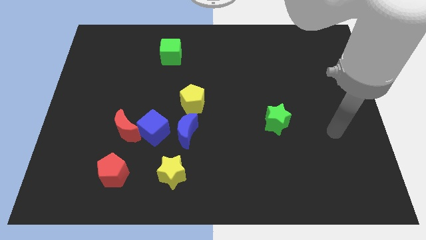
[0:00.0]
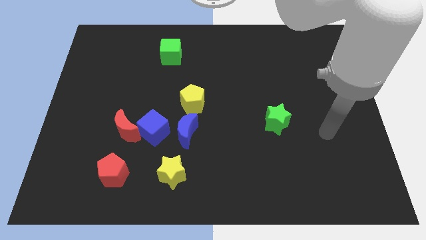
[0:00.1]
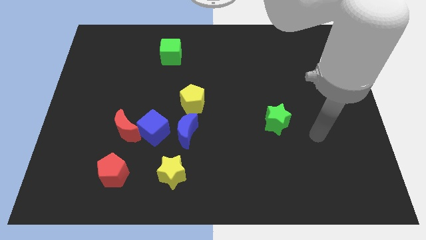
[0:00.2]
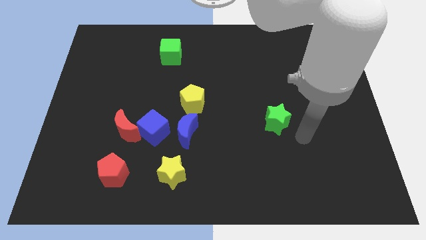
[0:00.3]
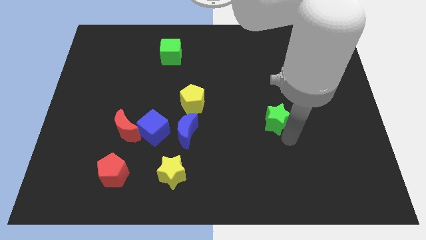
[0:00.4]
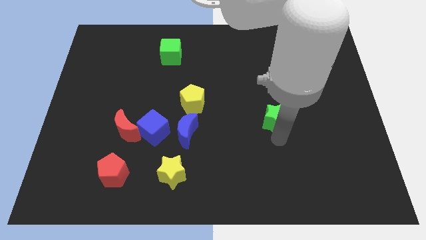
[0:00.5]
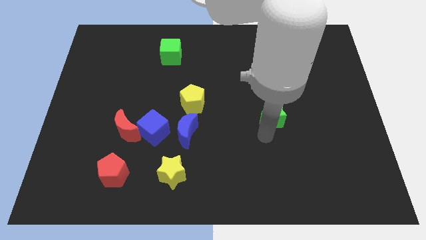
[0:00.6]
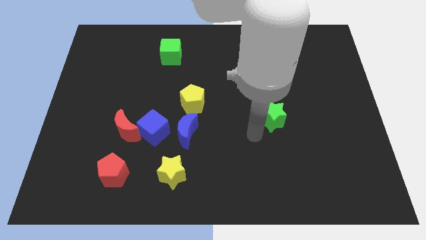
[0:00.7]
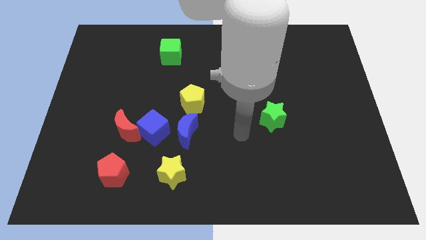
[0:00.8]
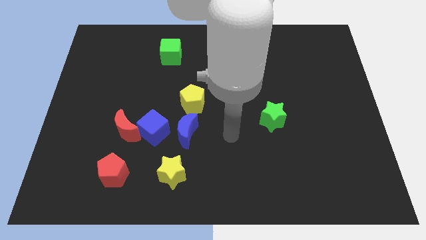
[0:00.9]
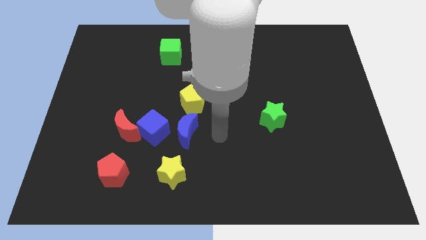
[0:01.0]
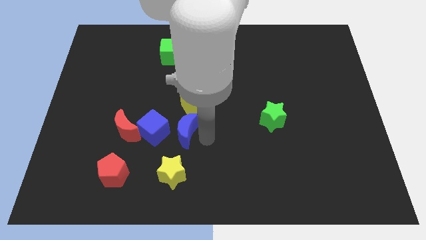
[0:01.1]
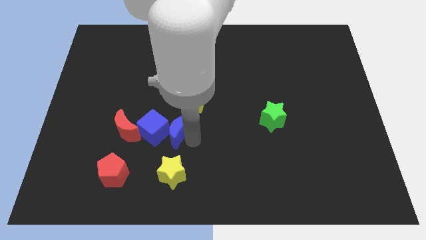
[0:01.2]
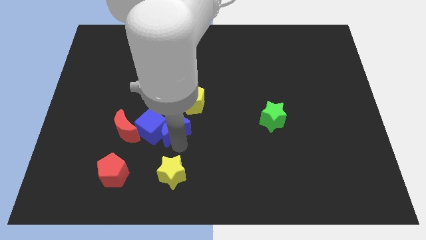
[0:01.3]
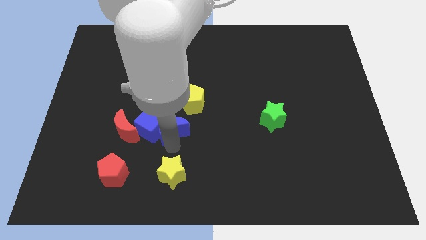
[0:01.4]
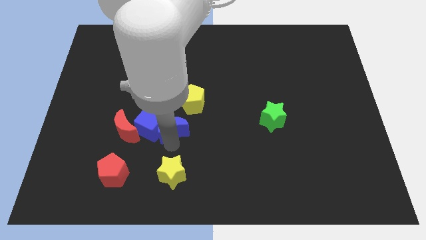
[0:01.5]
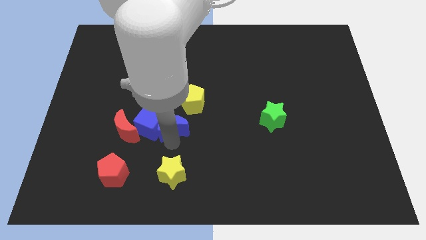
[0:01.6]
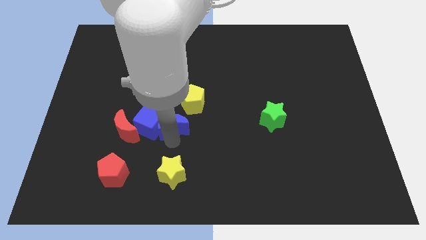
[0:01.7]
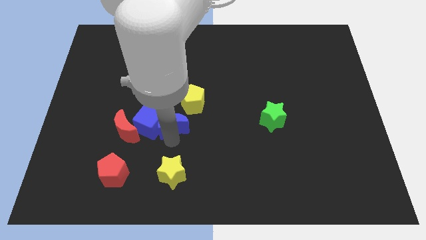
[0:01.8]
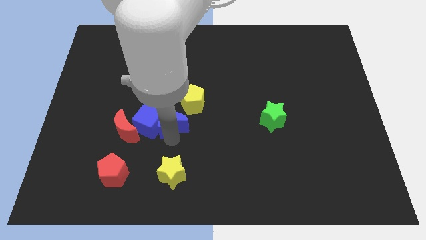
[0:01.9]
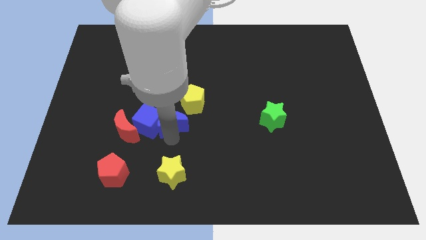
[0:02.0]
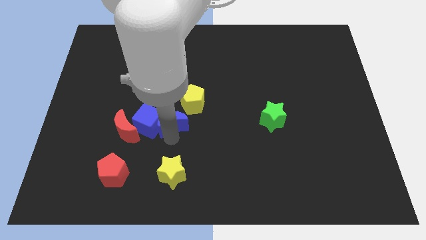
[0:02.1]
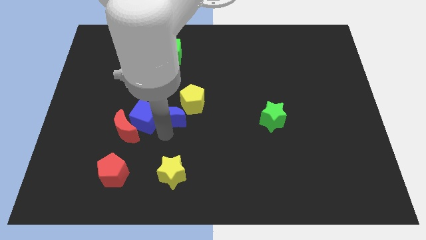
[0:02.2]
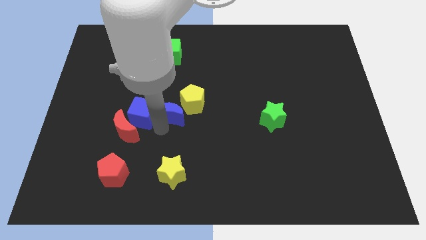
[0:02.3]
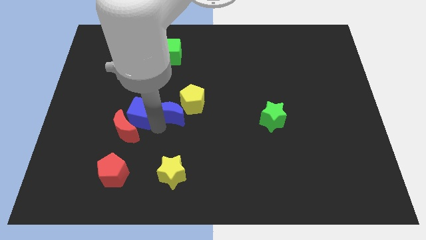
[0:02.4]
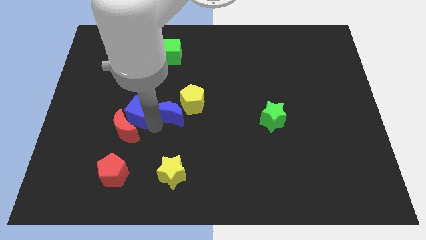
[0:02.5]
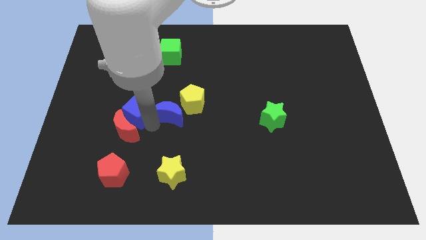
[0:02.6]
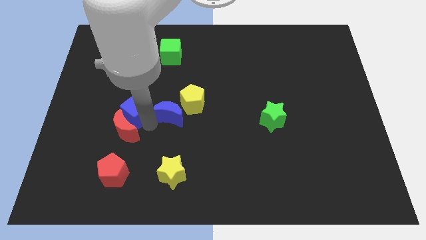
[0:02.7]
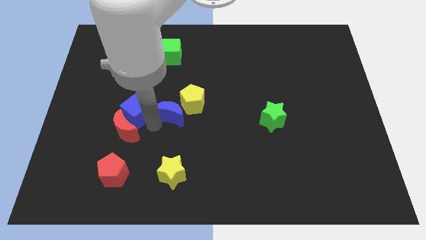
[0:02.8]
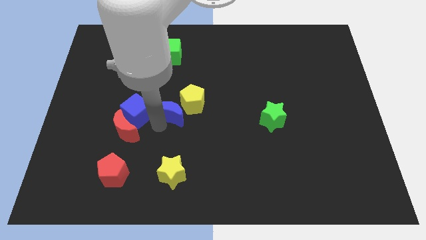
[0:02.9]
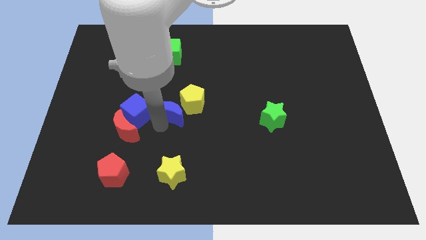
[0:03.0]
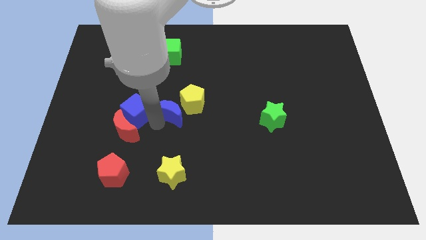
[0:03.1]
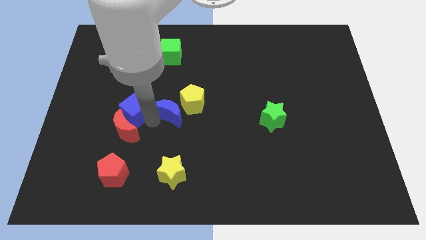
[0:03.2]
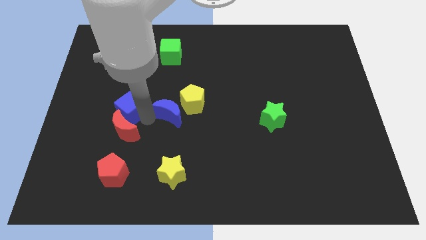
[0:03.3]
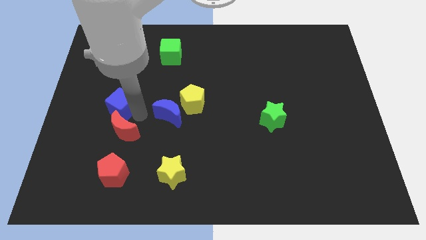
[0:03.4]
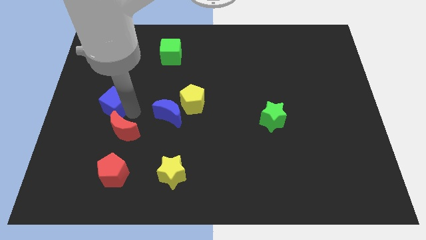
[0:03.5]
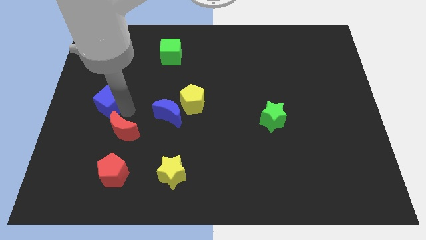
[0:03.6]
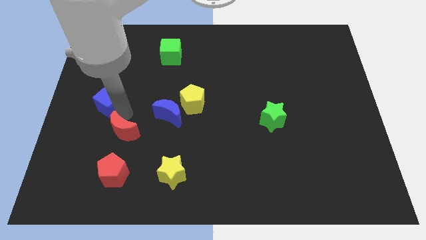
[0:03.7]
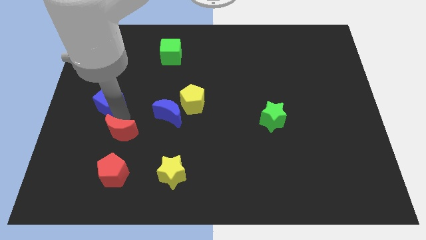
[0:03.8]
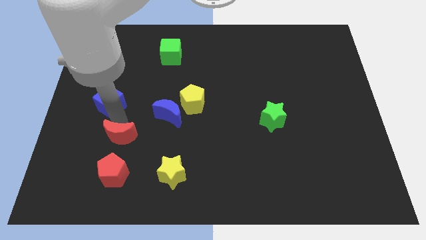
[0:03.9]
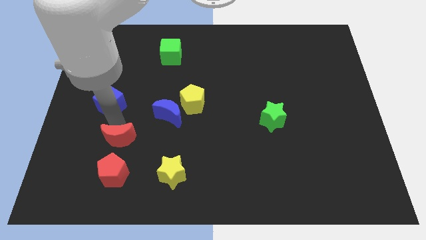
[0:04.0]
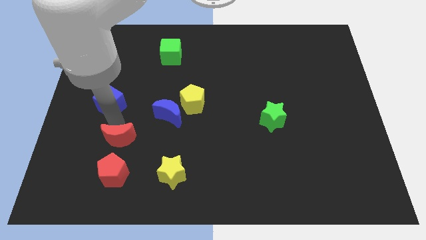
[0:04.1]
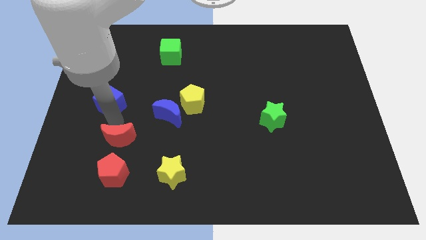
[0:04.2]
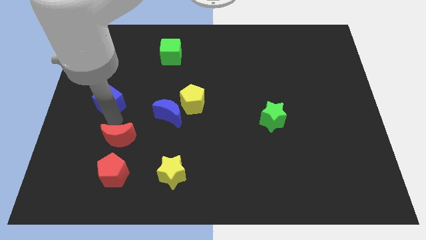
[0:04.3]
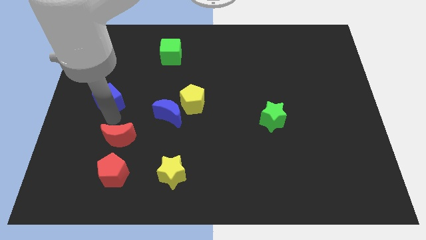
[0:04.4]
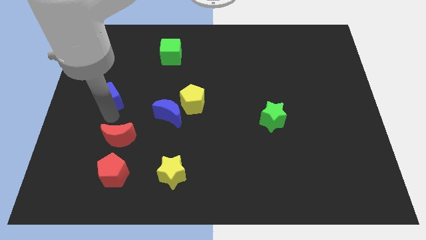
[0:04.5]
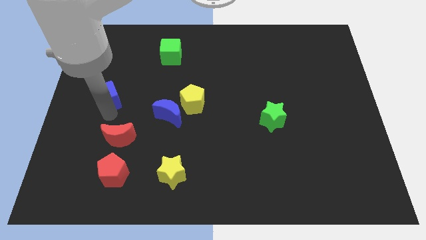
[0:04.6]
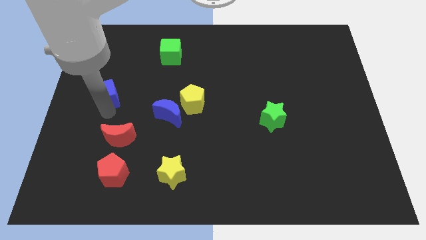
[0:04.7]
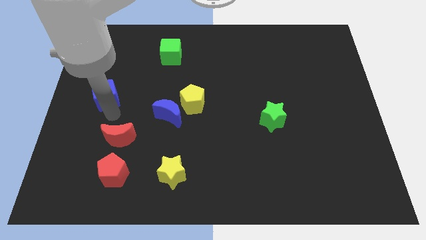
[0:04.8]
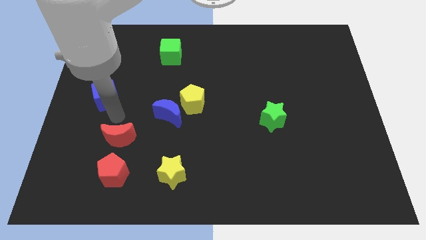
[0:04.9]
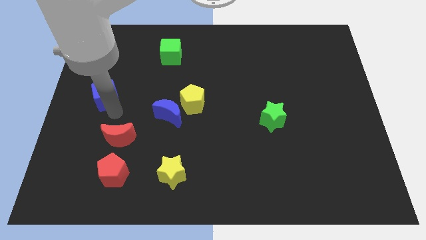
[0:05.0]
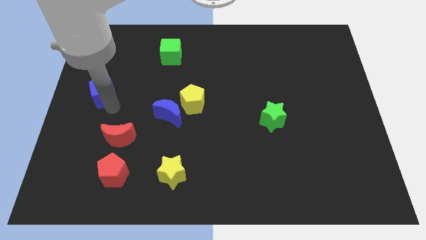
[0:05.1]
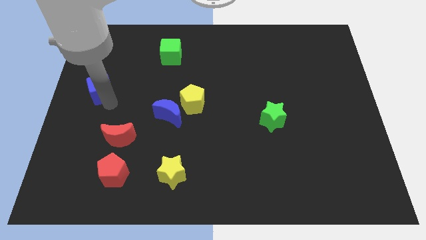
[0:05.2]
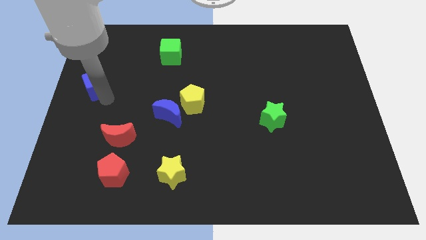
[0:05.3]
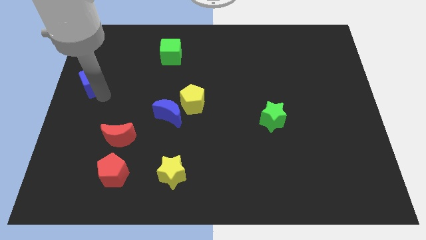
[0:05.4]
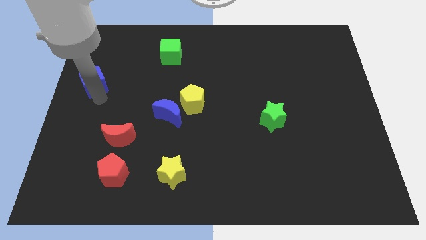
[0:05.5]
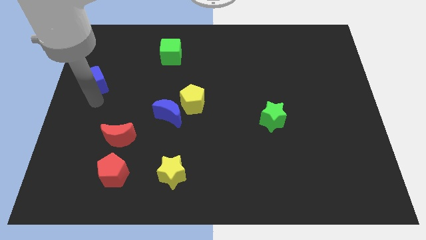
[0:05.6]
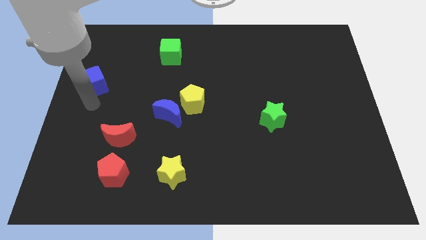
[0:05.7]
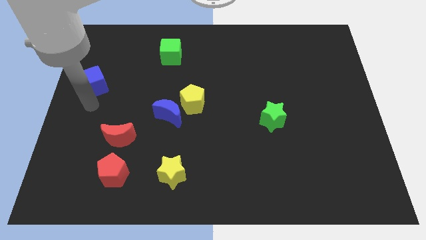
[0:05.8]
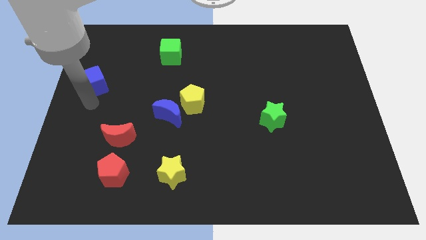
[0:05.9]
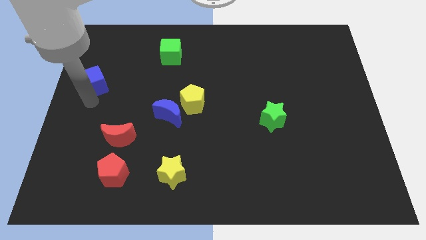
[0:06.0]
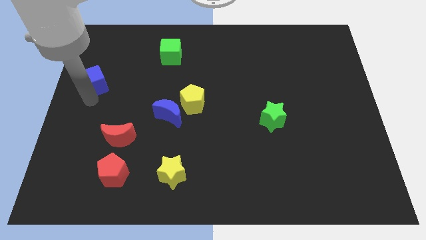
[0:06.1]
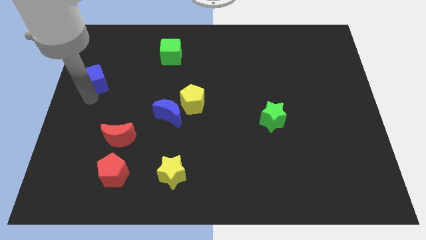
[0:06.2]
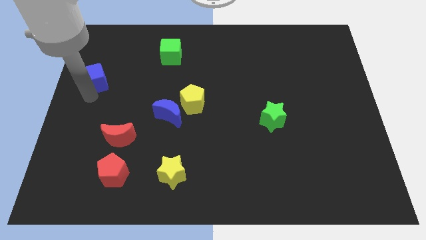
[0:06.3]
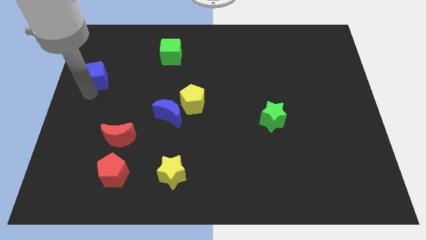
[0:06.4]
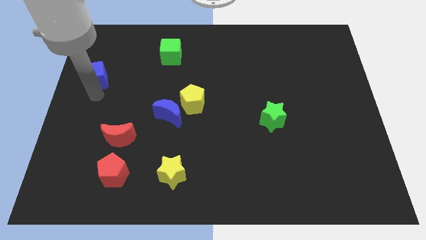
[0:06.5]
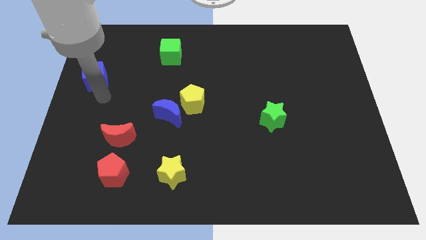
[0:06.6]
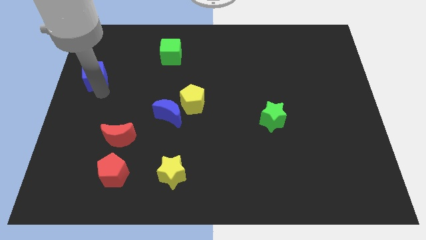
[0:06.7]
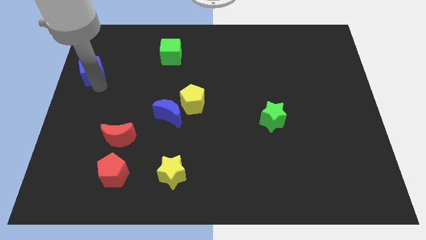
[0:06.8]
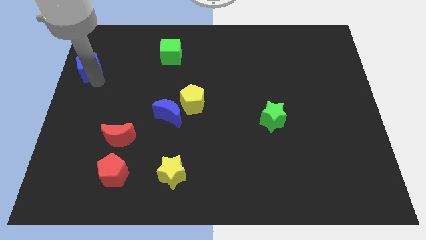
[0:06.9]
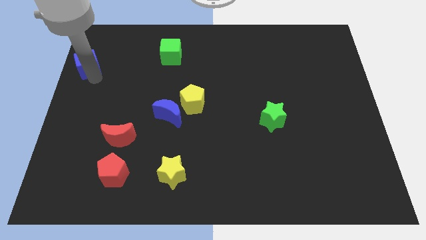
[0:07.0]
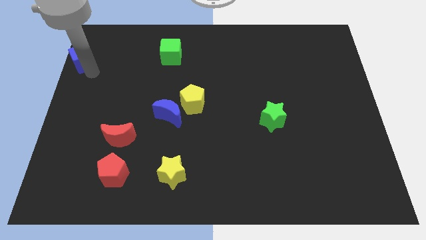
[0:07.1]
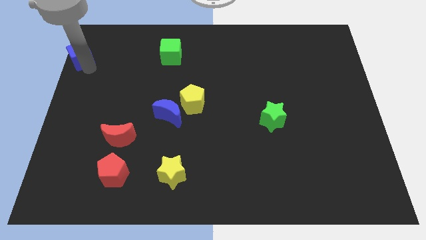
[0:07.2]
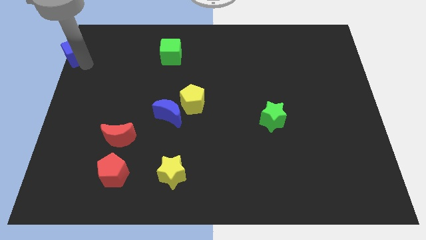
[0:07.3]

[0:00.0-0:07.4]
slide the blue cube to the top left
